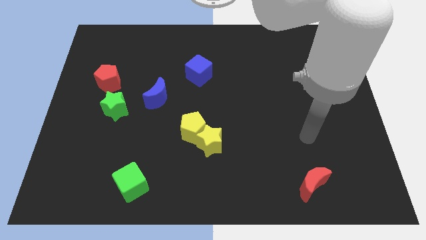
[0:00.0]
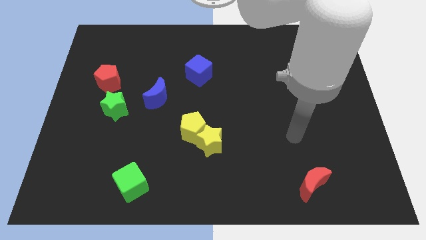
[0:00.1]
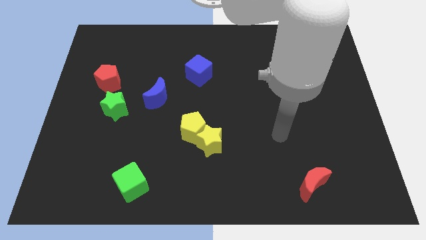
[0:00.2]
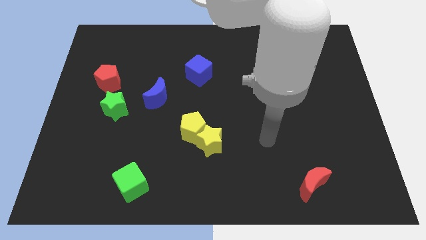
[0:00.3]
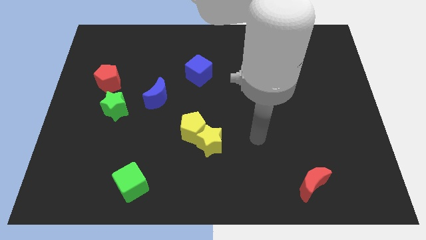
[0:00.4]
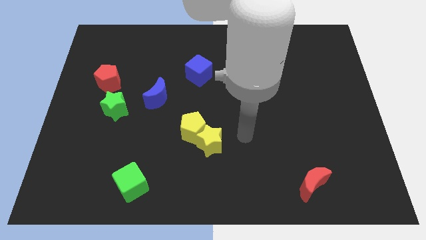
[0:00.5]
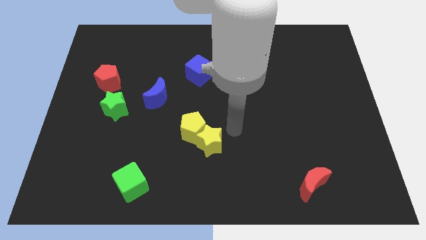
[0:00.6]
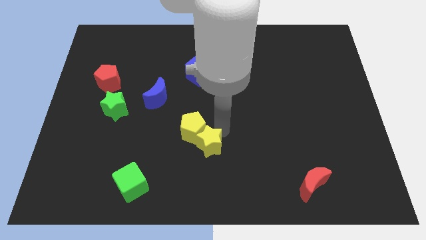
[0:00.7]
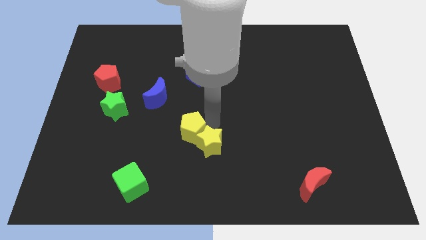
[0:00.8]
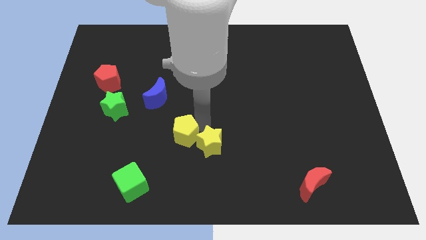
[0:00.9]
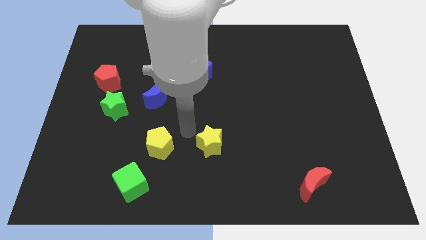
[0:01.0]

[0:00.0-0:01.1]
separate the yellow star from the yellow pentagon

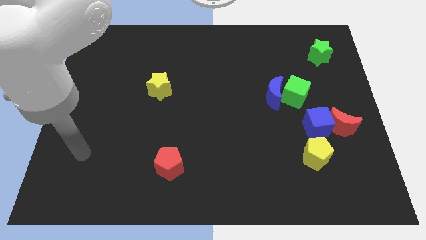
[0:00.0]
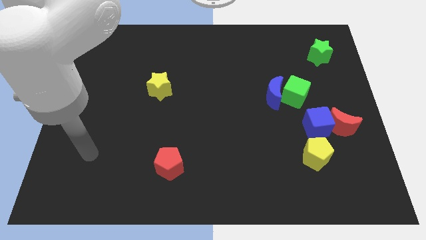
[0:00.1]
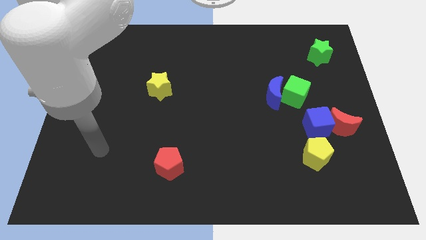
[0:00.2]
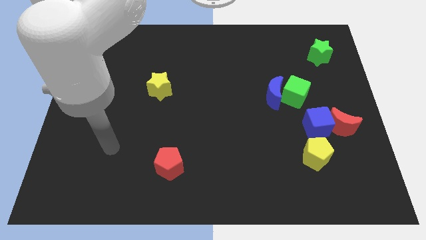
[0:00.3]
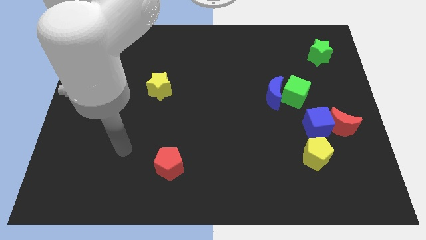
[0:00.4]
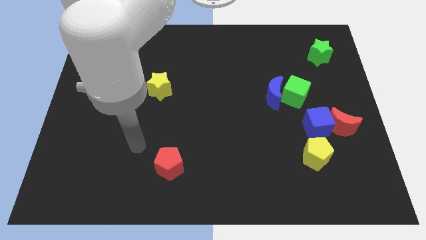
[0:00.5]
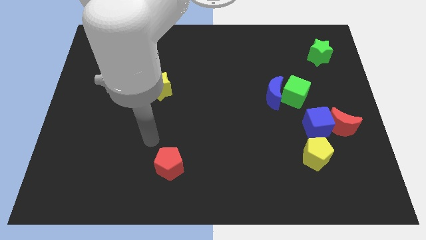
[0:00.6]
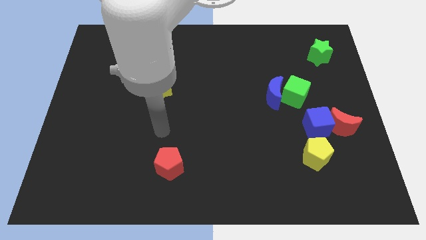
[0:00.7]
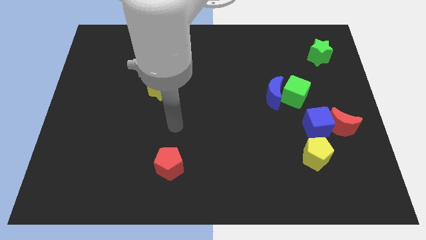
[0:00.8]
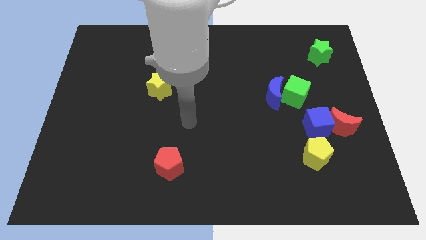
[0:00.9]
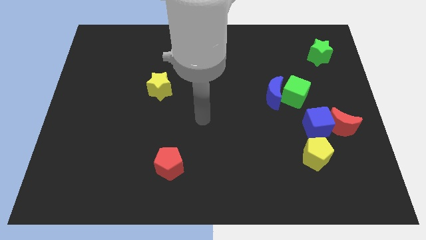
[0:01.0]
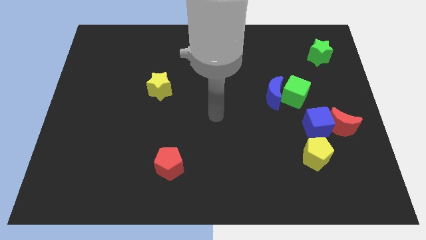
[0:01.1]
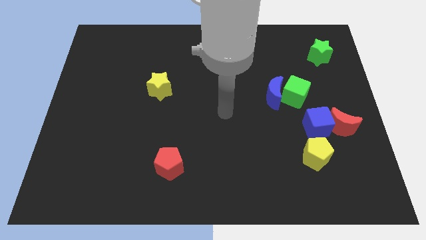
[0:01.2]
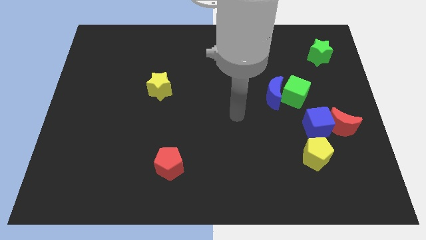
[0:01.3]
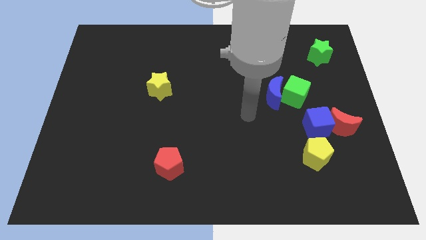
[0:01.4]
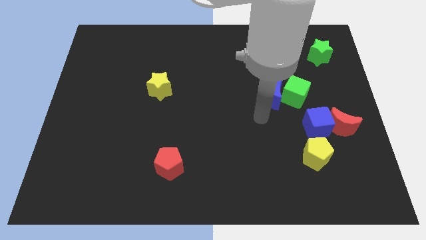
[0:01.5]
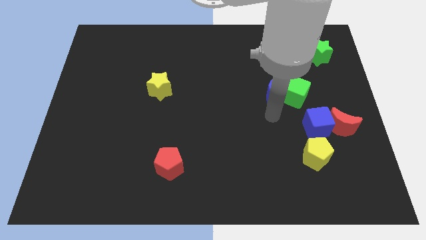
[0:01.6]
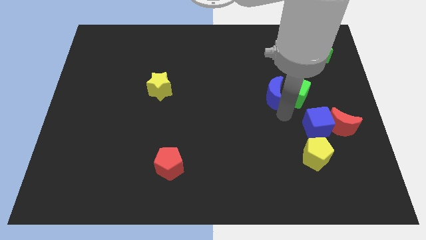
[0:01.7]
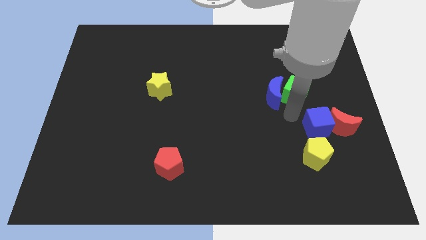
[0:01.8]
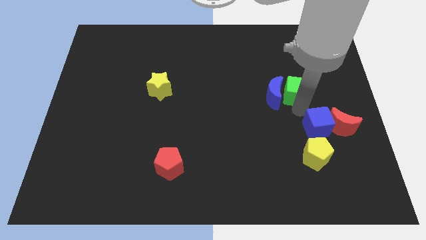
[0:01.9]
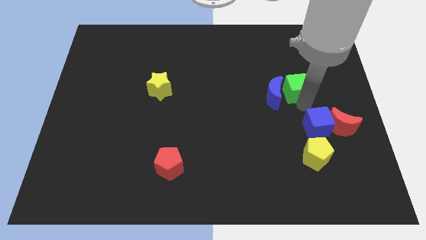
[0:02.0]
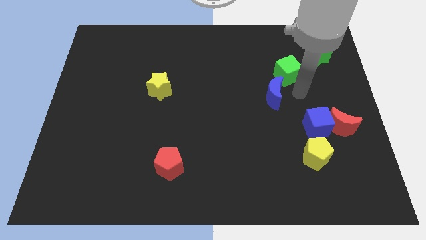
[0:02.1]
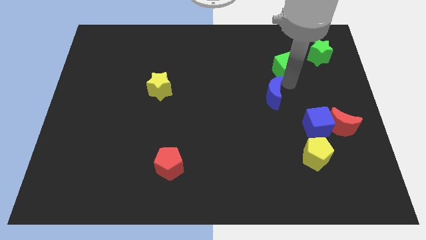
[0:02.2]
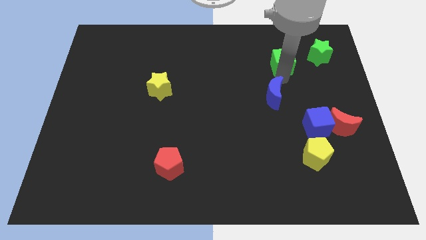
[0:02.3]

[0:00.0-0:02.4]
separate the blue moon from the green cube

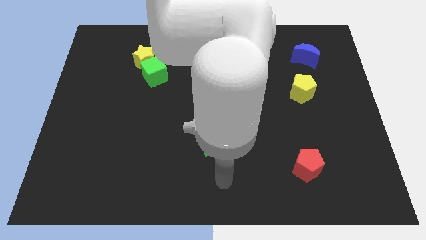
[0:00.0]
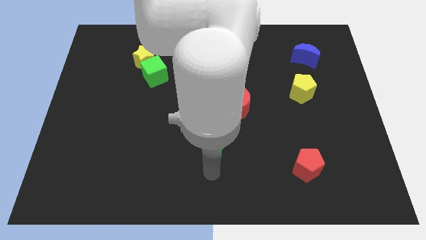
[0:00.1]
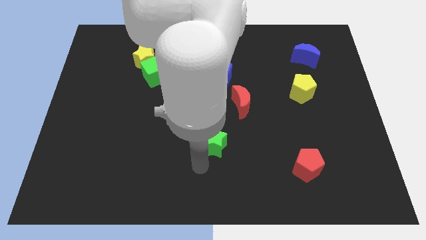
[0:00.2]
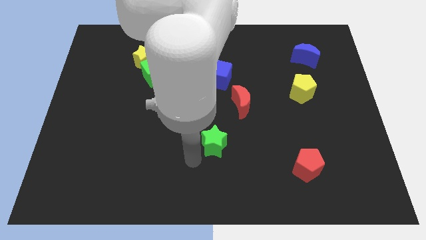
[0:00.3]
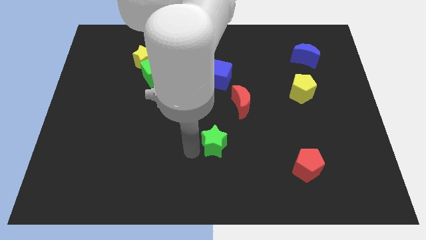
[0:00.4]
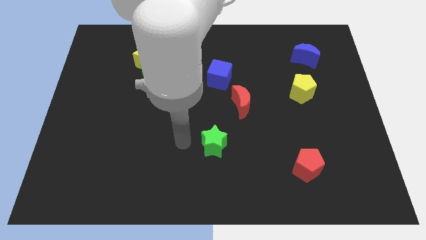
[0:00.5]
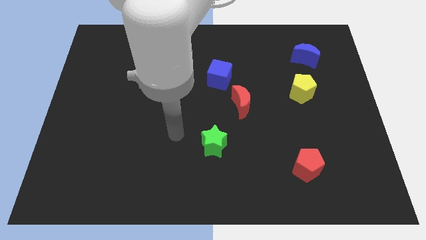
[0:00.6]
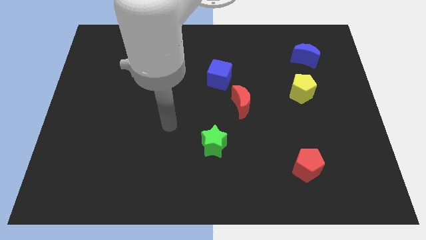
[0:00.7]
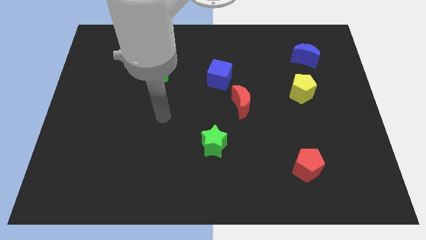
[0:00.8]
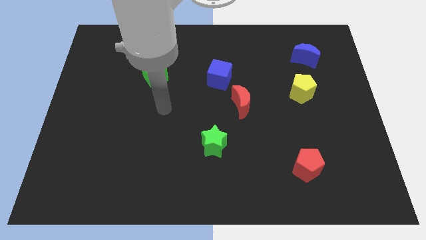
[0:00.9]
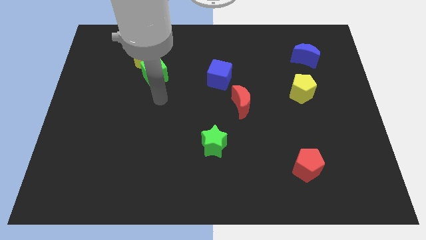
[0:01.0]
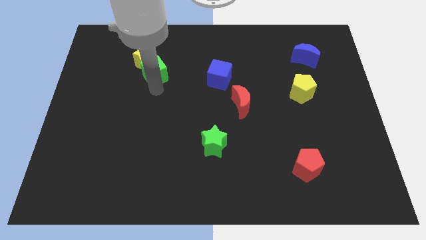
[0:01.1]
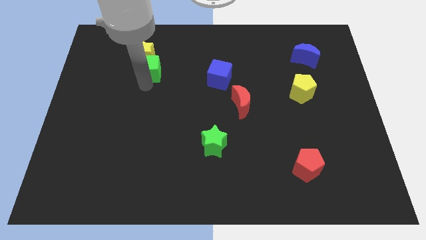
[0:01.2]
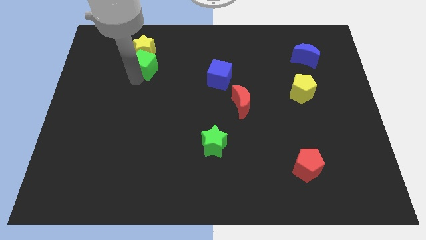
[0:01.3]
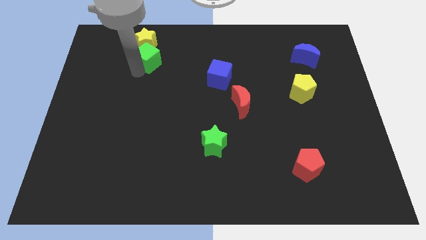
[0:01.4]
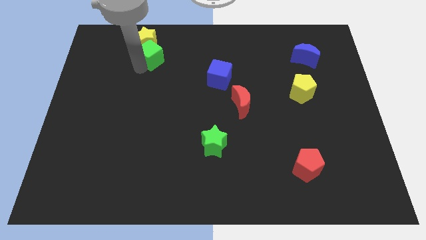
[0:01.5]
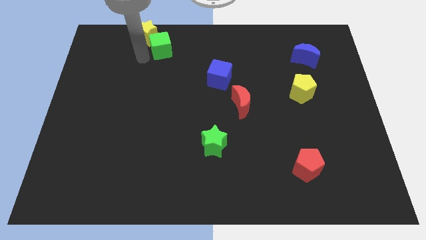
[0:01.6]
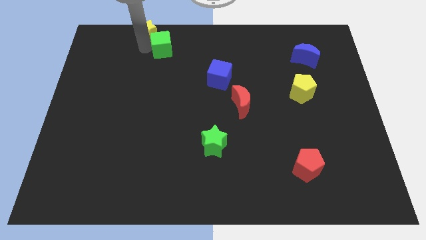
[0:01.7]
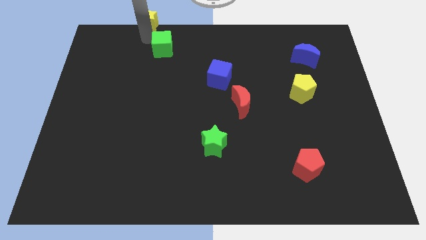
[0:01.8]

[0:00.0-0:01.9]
separate the green cube from the yellow star

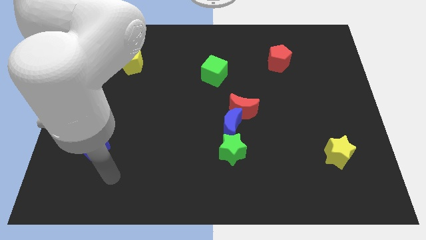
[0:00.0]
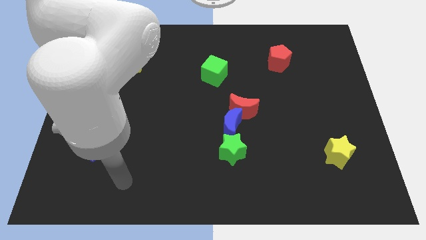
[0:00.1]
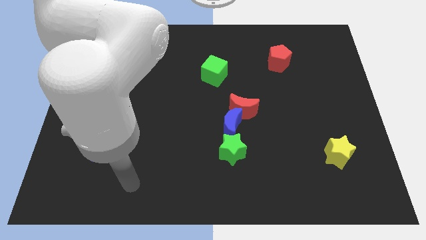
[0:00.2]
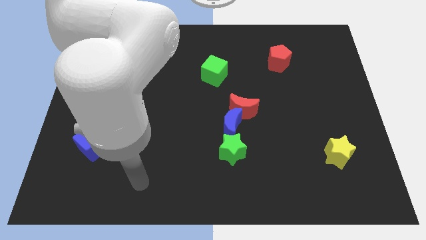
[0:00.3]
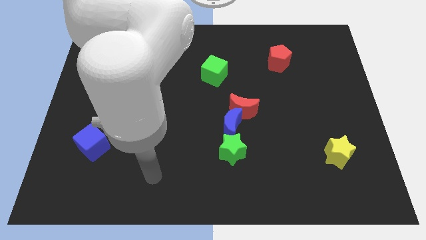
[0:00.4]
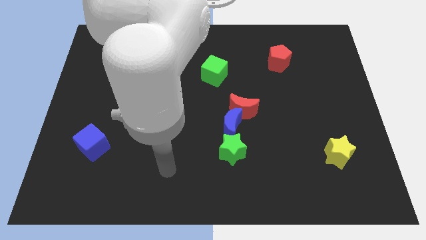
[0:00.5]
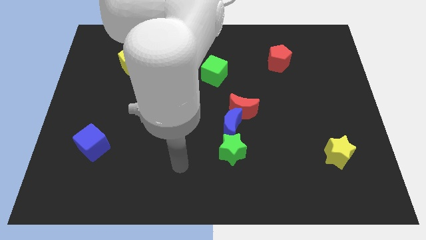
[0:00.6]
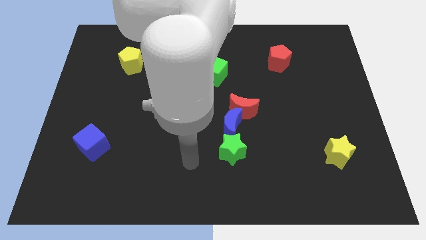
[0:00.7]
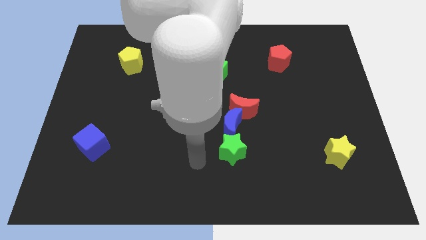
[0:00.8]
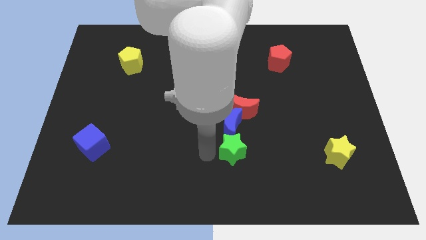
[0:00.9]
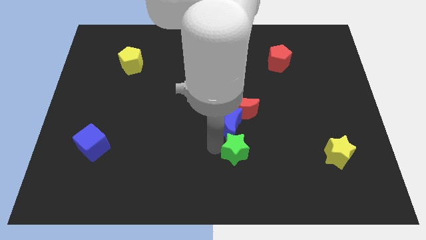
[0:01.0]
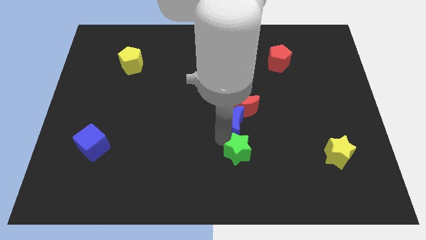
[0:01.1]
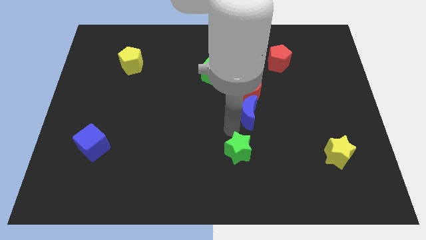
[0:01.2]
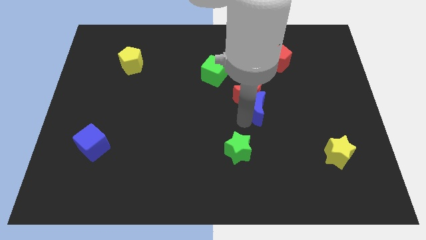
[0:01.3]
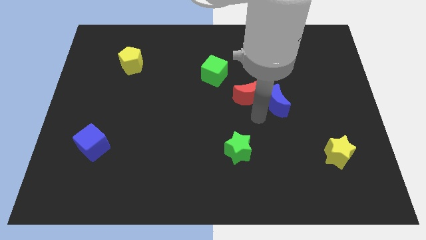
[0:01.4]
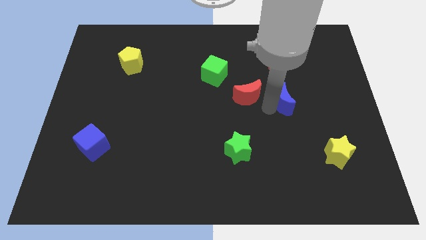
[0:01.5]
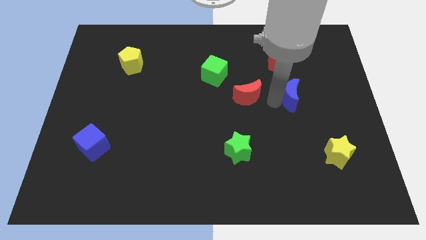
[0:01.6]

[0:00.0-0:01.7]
move the red moon away from the blue moon

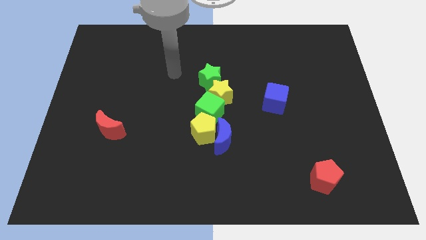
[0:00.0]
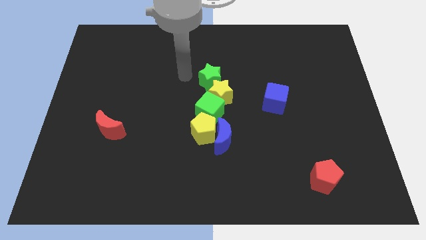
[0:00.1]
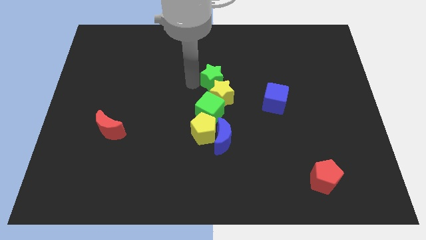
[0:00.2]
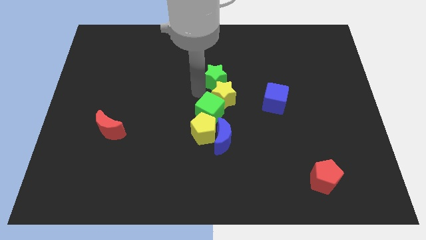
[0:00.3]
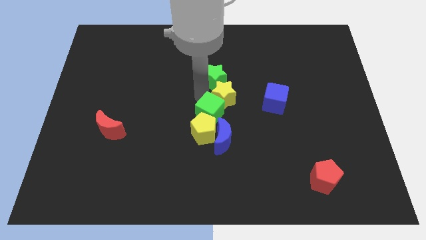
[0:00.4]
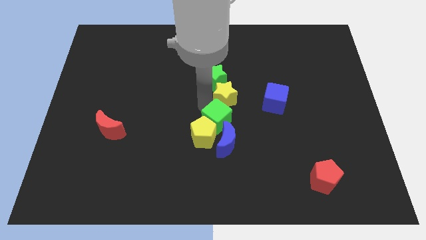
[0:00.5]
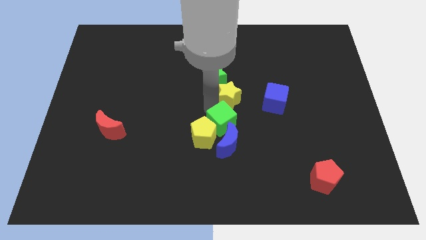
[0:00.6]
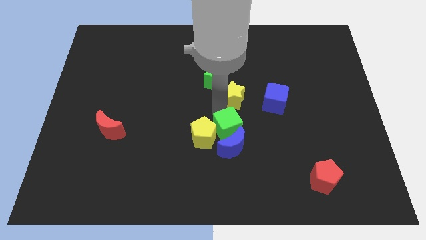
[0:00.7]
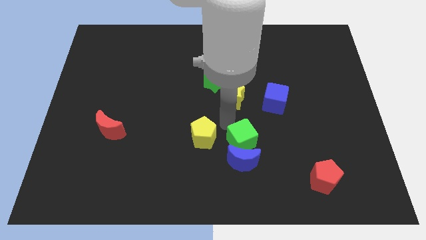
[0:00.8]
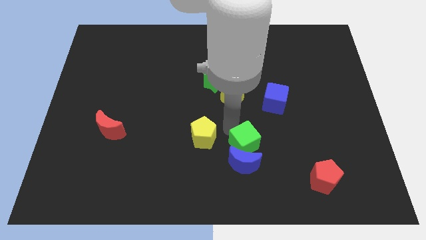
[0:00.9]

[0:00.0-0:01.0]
pull the yellow pentagon apart from the blue moon and green cube

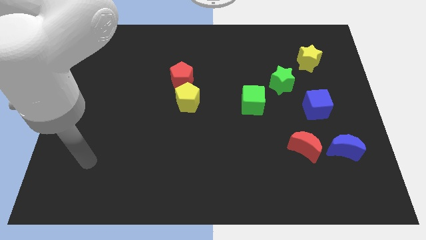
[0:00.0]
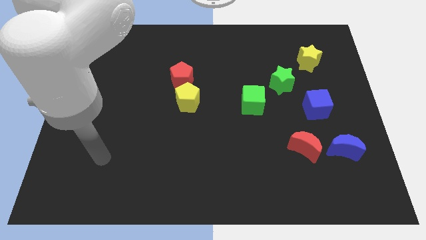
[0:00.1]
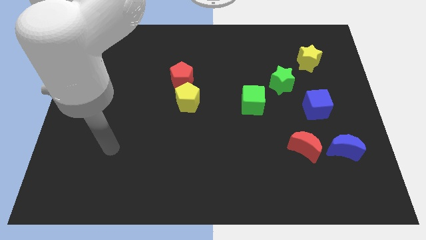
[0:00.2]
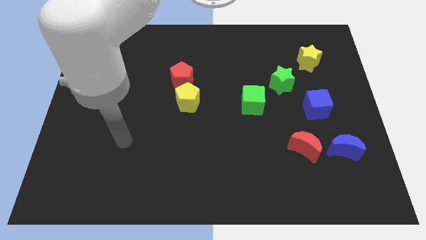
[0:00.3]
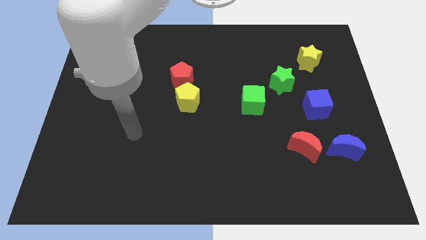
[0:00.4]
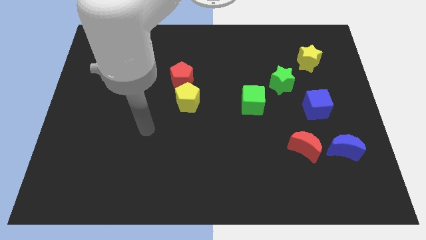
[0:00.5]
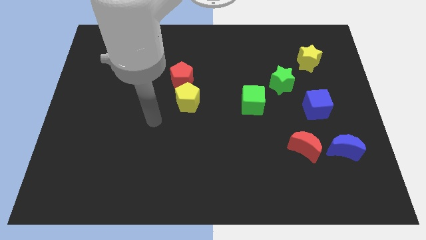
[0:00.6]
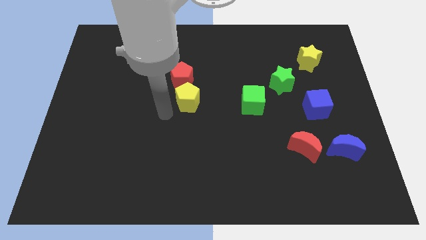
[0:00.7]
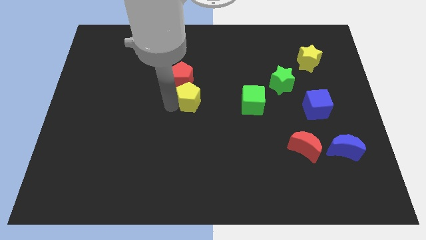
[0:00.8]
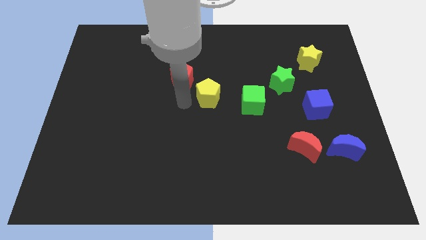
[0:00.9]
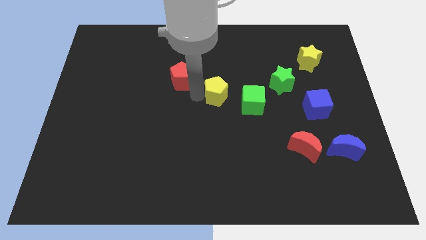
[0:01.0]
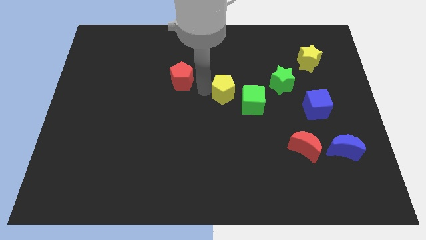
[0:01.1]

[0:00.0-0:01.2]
move the red pentagon away from the yellow pentagon
